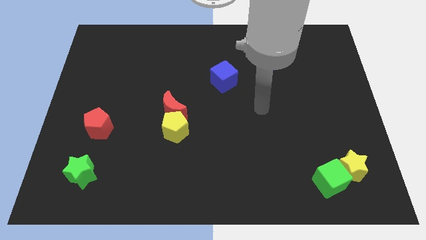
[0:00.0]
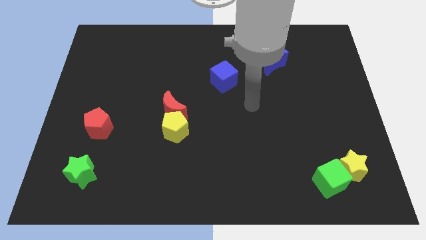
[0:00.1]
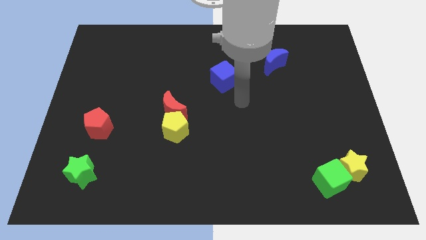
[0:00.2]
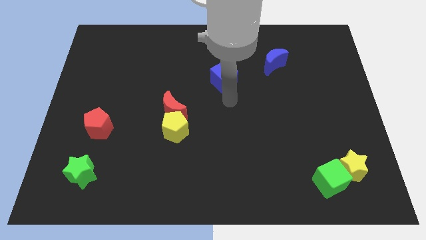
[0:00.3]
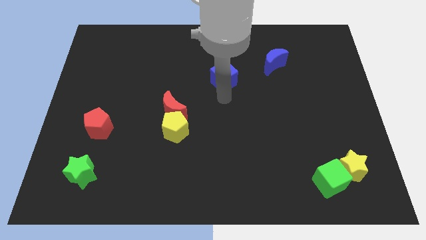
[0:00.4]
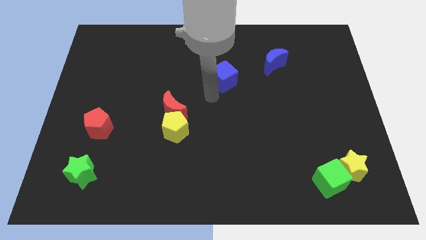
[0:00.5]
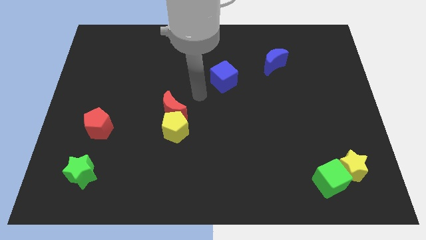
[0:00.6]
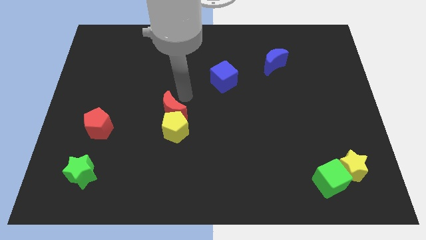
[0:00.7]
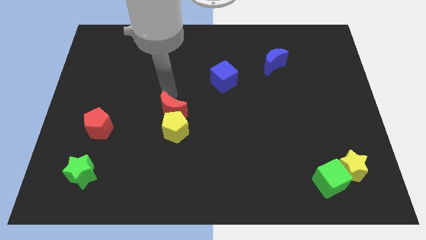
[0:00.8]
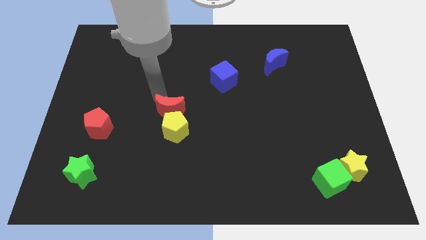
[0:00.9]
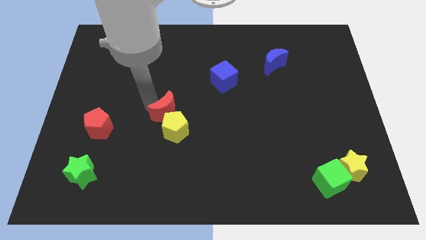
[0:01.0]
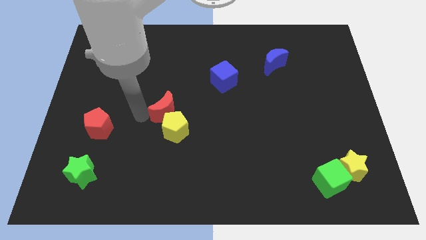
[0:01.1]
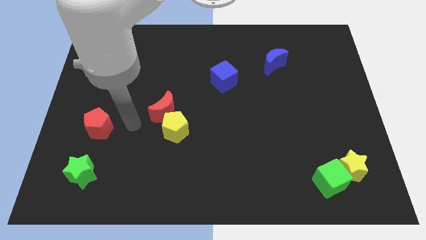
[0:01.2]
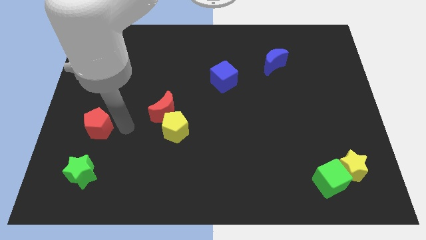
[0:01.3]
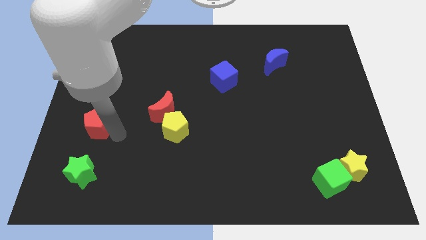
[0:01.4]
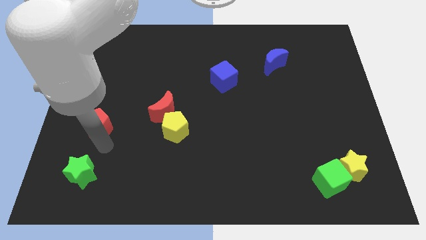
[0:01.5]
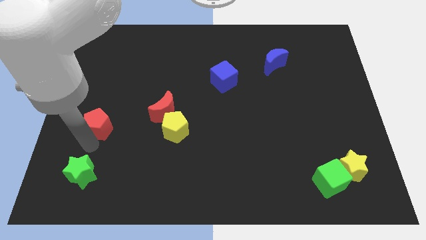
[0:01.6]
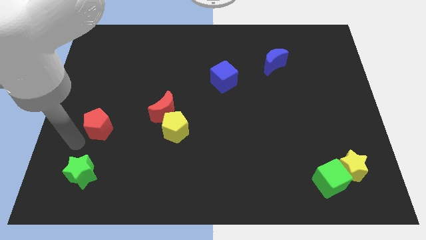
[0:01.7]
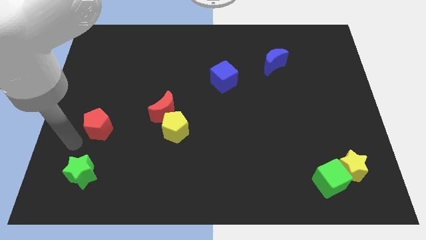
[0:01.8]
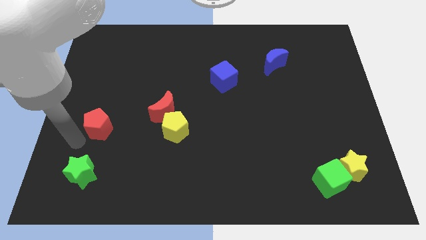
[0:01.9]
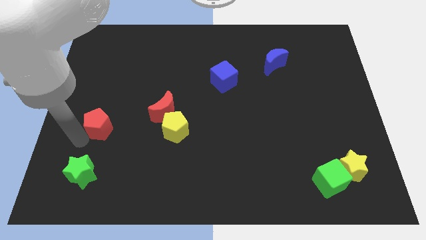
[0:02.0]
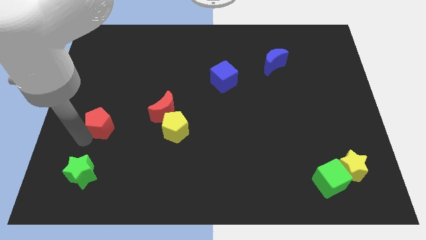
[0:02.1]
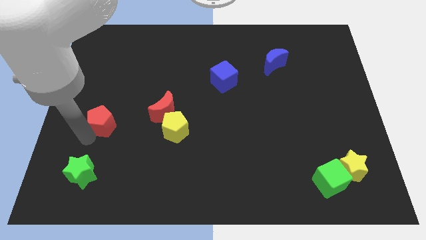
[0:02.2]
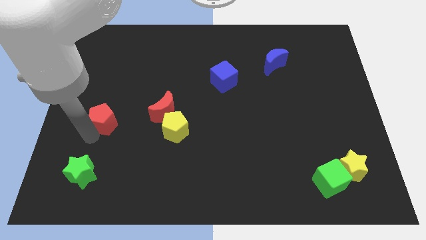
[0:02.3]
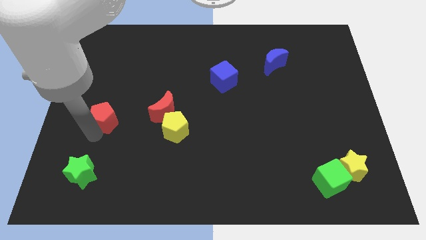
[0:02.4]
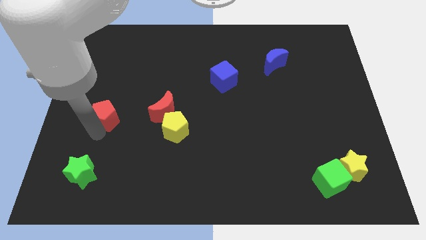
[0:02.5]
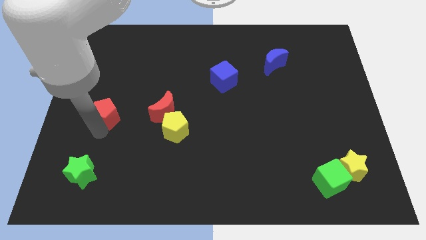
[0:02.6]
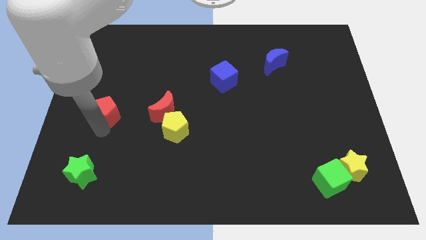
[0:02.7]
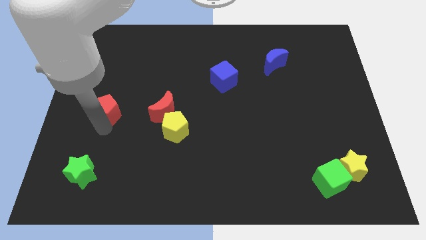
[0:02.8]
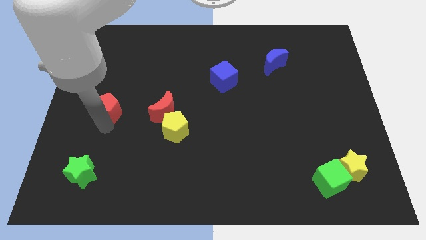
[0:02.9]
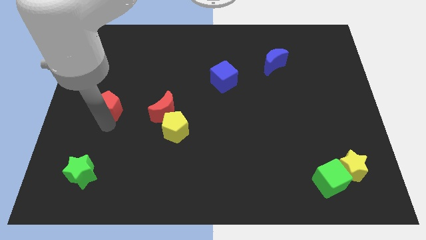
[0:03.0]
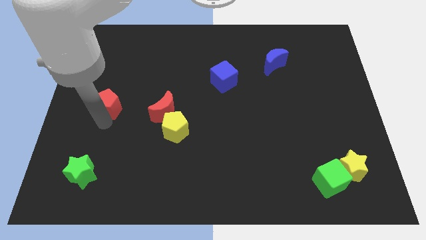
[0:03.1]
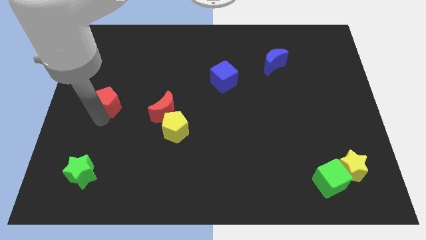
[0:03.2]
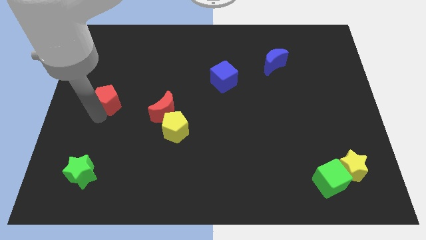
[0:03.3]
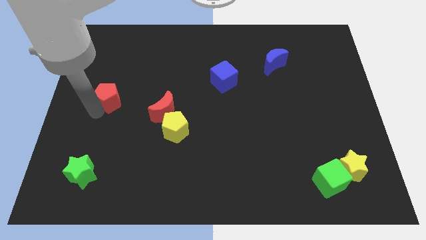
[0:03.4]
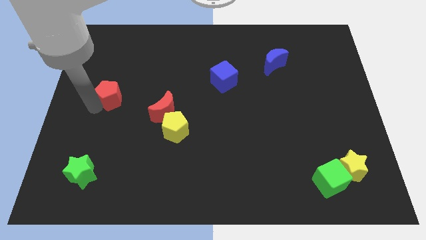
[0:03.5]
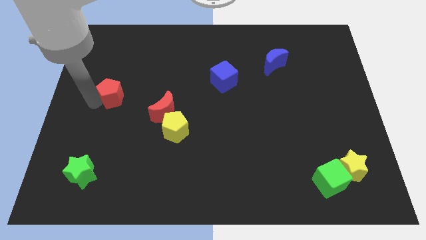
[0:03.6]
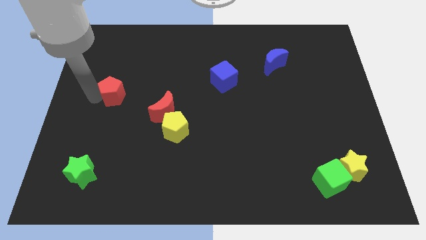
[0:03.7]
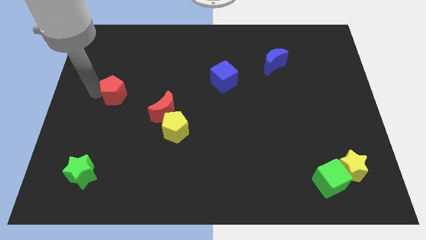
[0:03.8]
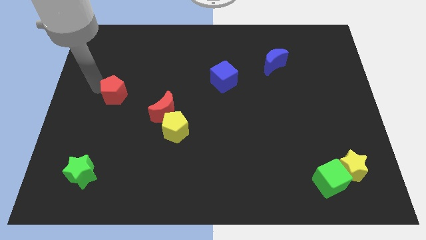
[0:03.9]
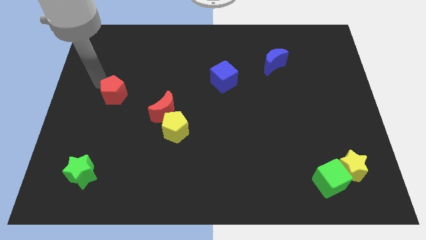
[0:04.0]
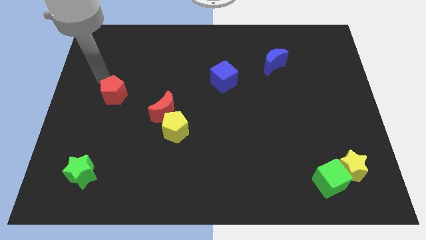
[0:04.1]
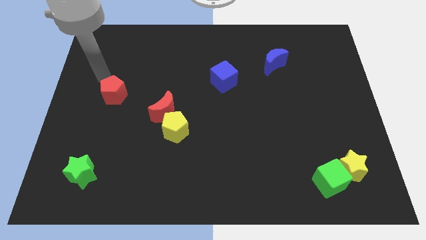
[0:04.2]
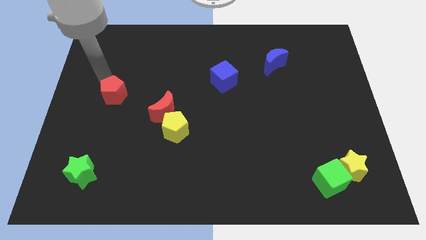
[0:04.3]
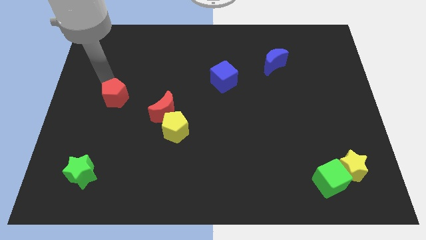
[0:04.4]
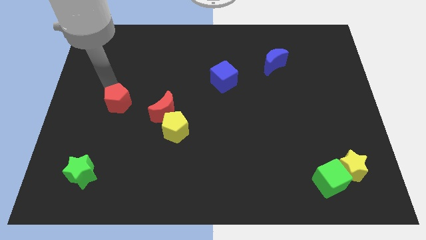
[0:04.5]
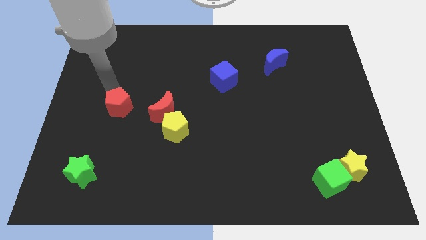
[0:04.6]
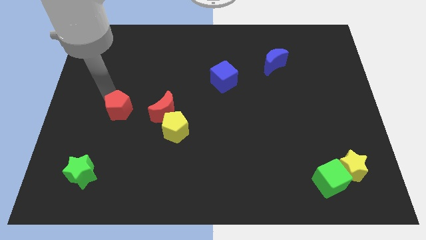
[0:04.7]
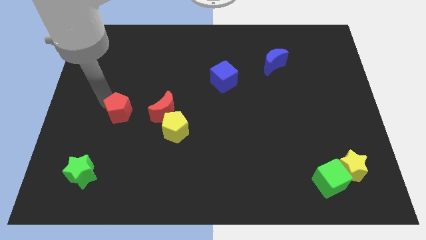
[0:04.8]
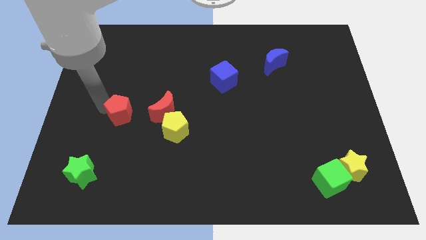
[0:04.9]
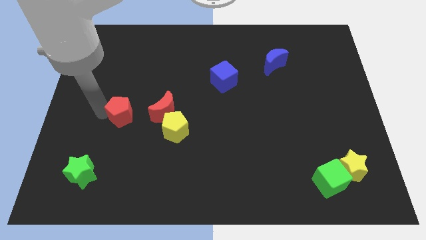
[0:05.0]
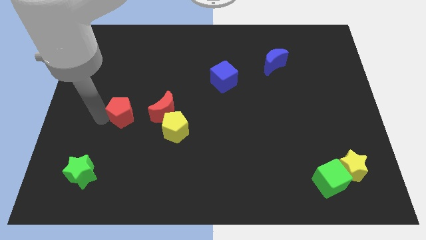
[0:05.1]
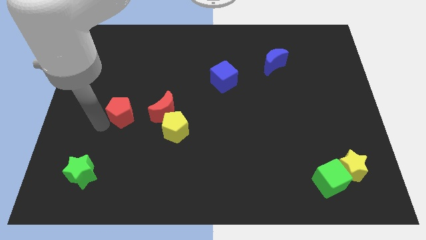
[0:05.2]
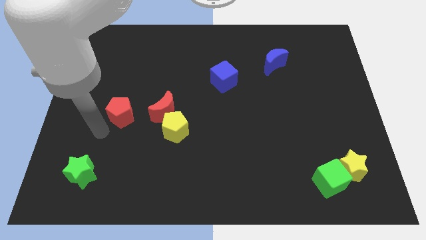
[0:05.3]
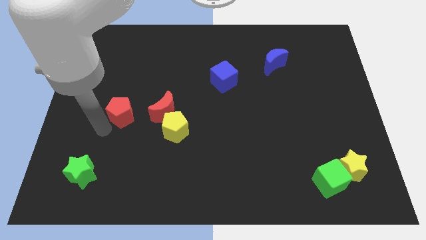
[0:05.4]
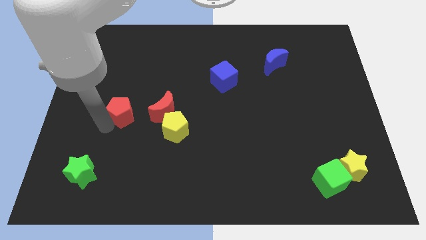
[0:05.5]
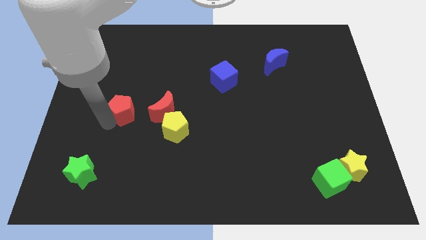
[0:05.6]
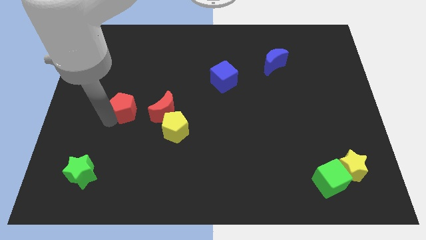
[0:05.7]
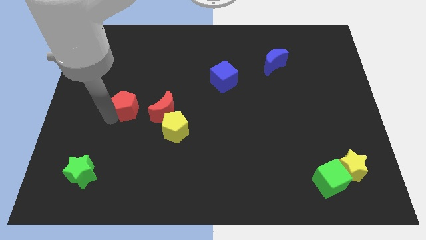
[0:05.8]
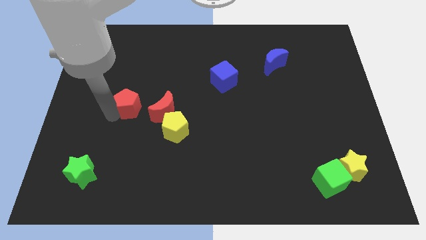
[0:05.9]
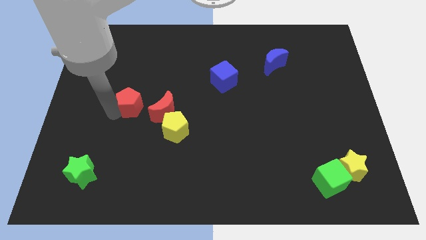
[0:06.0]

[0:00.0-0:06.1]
slide the red pentagon diagonally up and to the left of the red moon

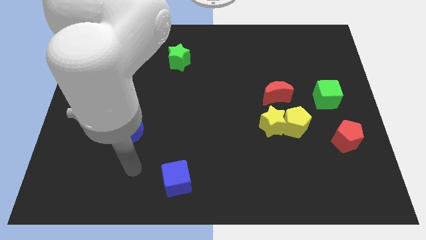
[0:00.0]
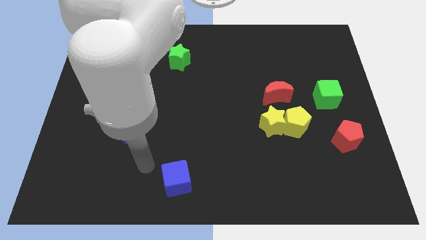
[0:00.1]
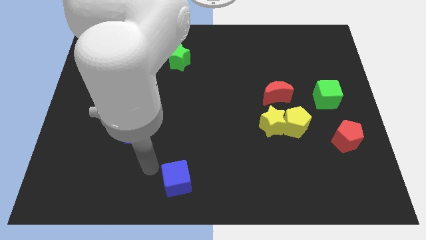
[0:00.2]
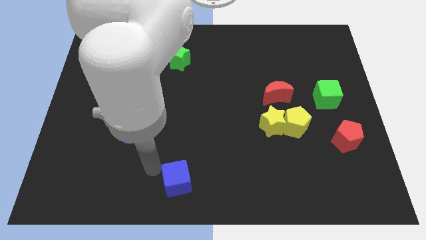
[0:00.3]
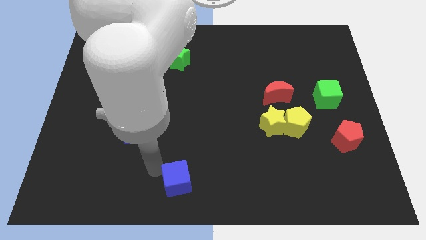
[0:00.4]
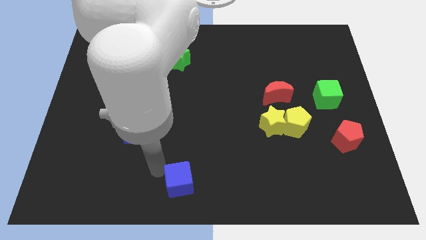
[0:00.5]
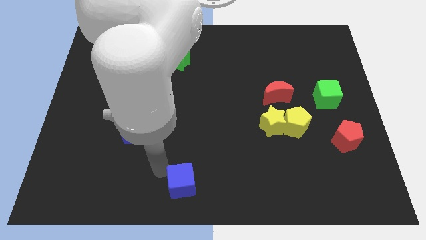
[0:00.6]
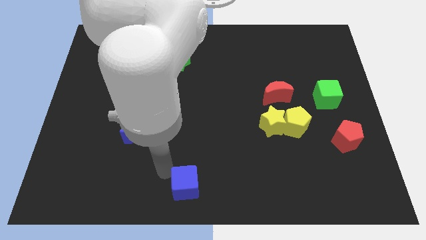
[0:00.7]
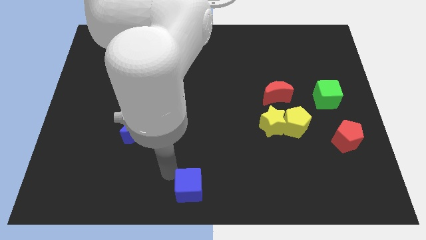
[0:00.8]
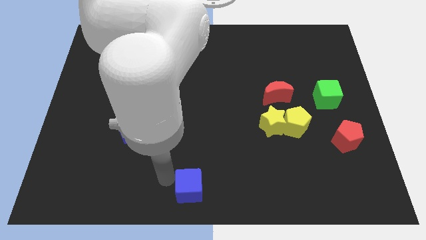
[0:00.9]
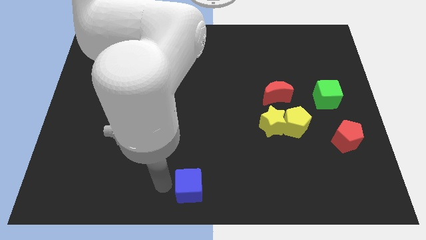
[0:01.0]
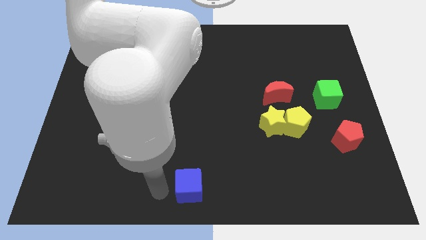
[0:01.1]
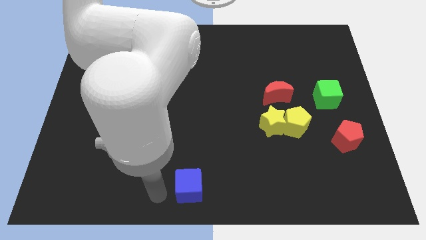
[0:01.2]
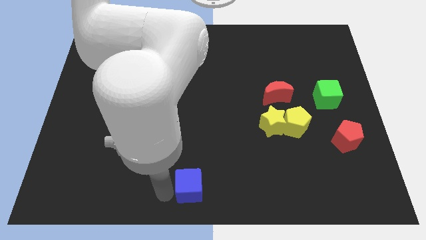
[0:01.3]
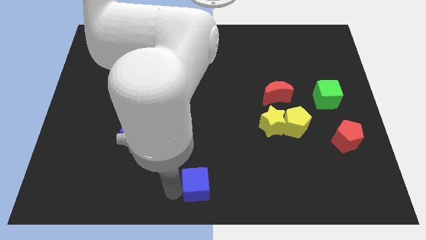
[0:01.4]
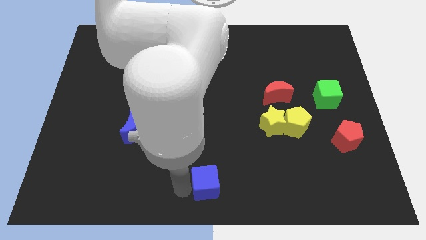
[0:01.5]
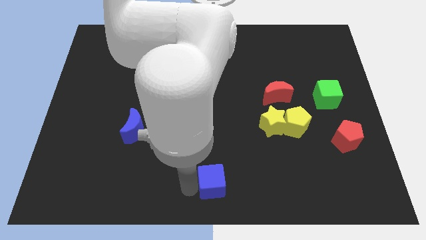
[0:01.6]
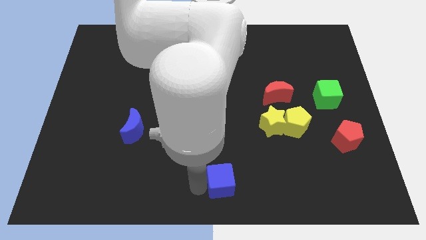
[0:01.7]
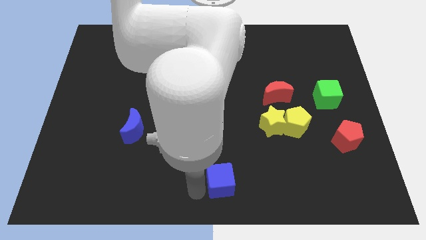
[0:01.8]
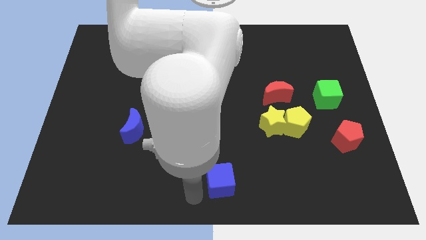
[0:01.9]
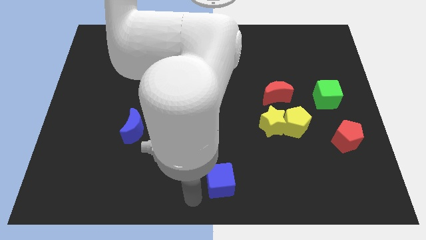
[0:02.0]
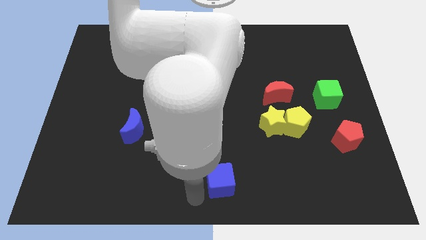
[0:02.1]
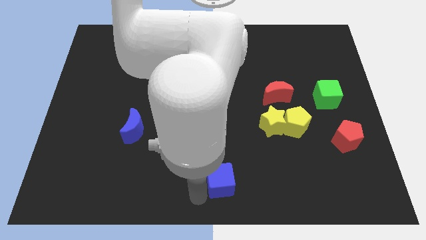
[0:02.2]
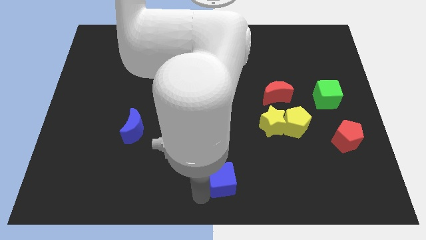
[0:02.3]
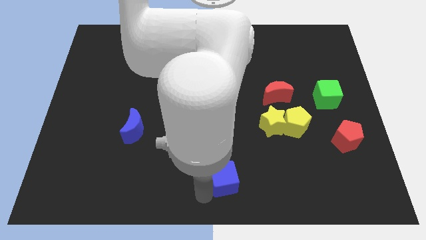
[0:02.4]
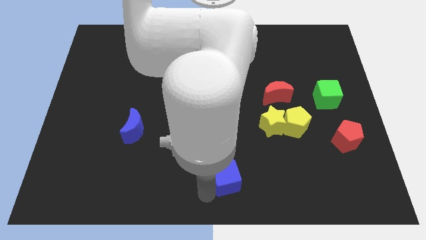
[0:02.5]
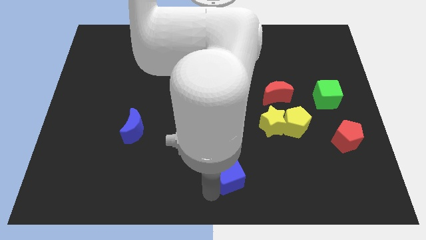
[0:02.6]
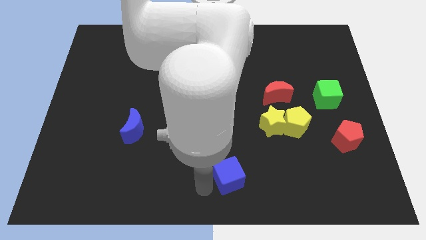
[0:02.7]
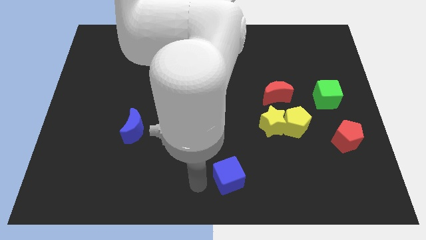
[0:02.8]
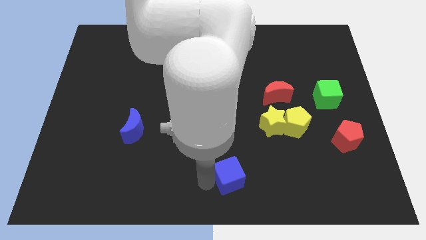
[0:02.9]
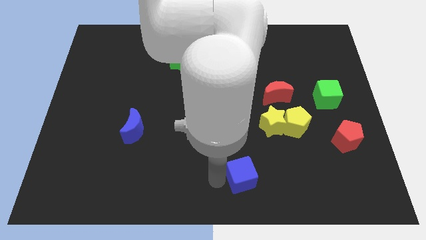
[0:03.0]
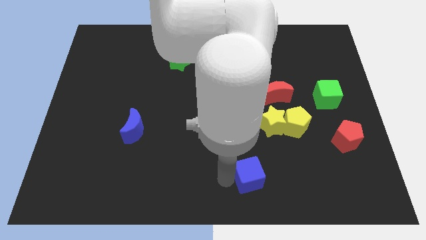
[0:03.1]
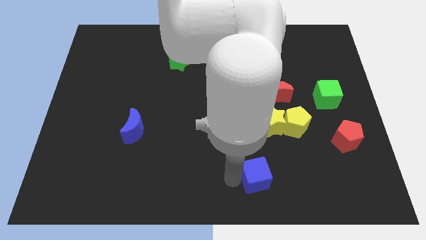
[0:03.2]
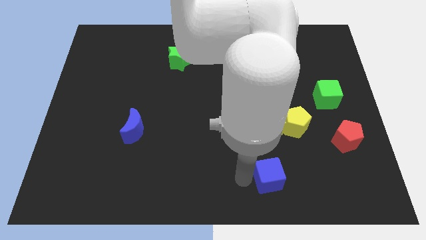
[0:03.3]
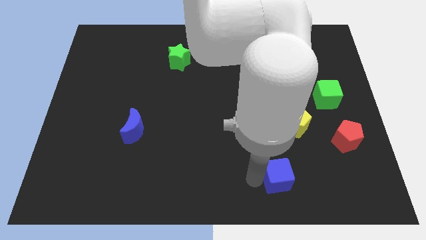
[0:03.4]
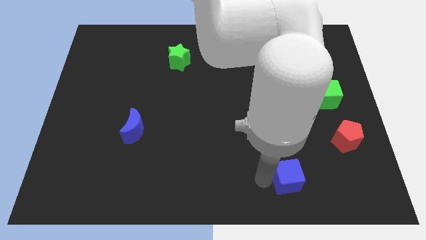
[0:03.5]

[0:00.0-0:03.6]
put the blue cube to the bottom side of the yellow pentagon
